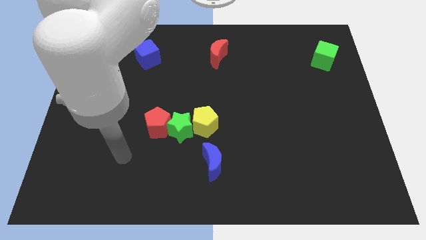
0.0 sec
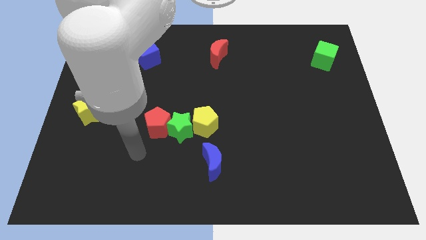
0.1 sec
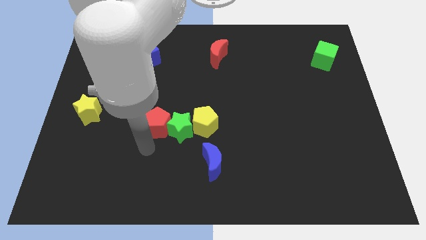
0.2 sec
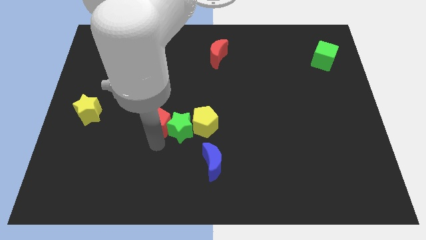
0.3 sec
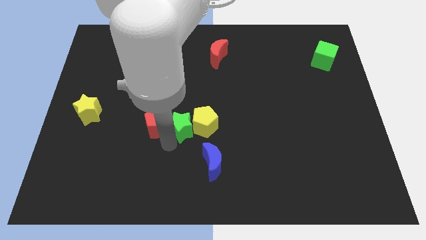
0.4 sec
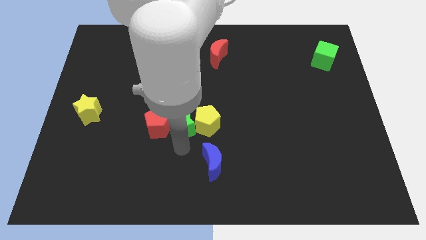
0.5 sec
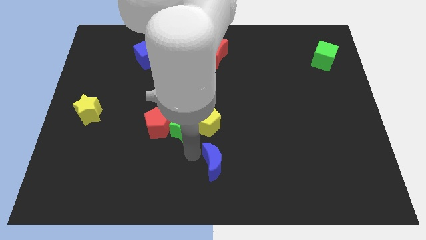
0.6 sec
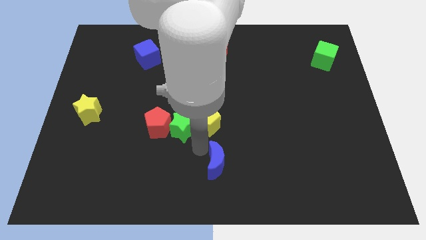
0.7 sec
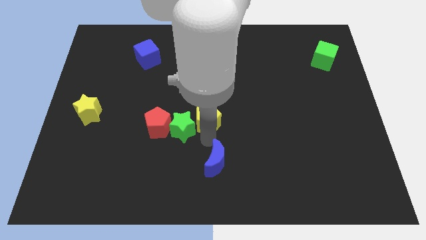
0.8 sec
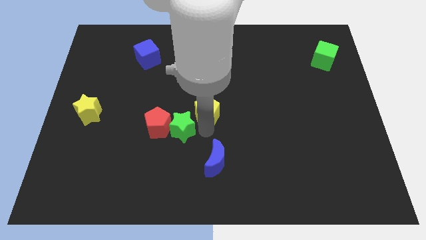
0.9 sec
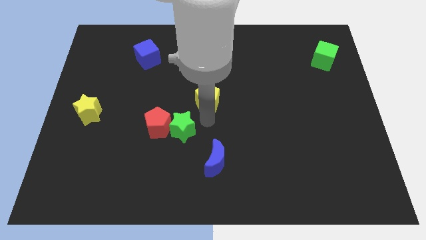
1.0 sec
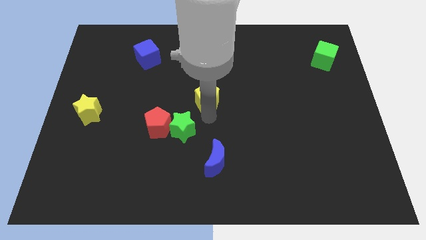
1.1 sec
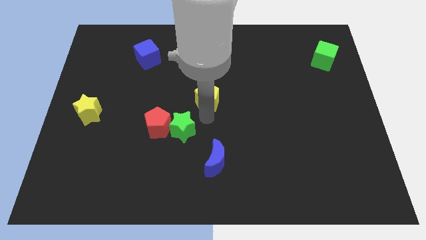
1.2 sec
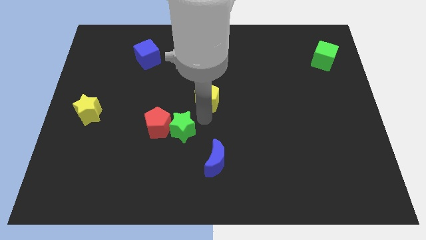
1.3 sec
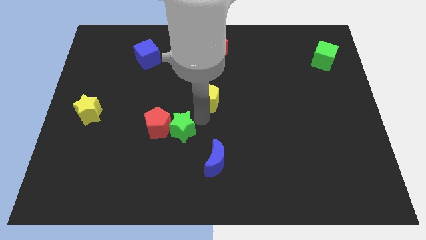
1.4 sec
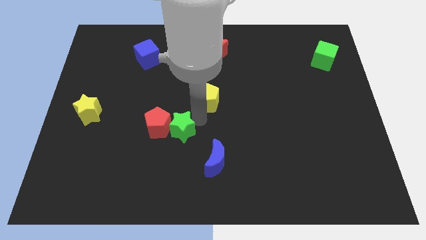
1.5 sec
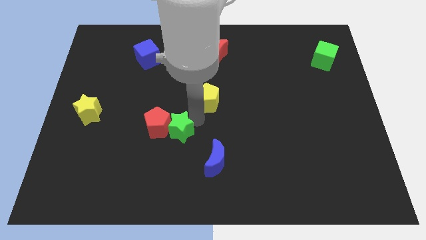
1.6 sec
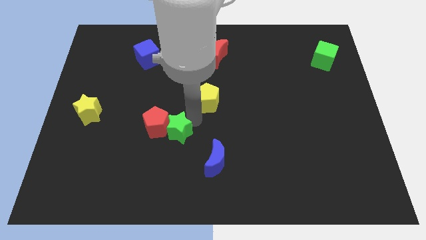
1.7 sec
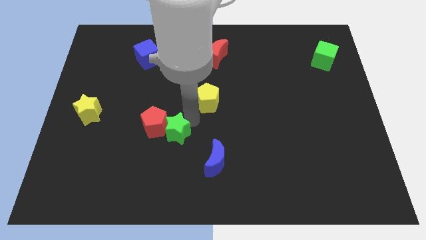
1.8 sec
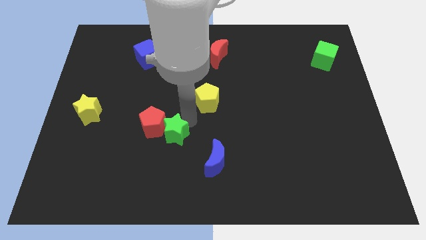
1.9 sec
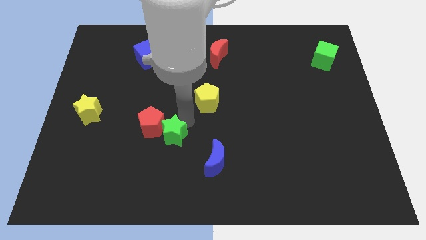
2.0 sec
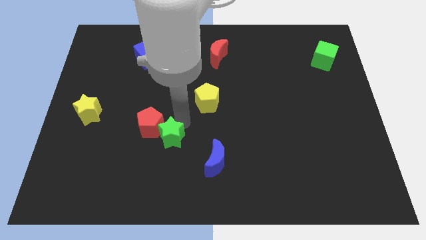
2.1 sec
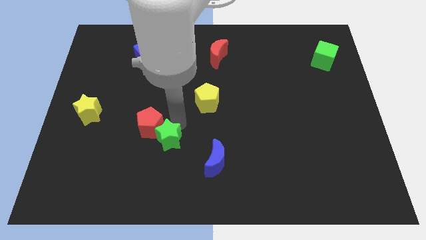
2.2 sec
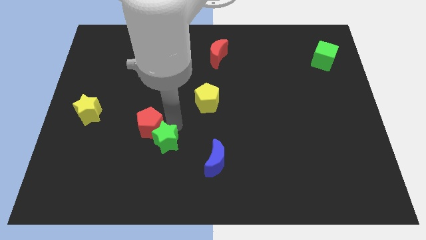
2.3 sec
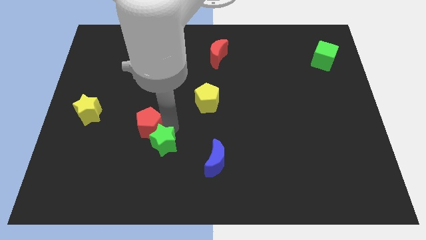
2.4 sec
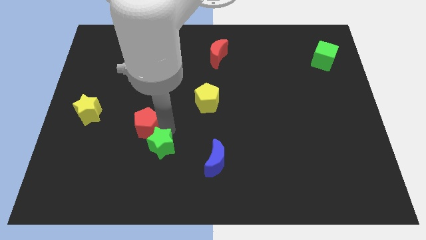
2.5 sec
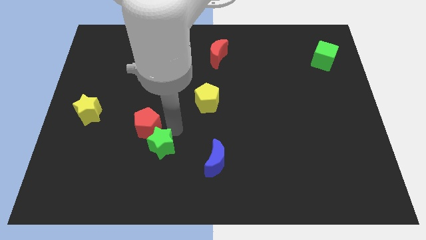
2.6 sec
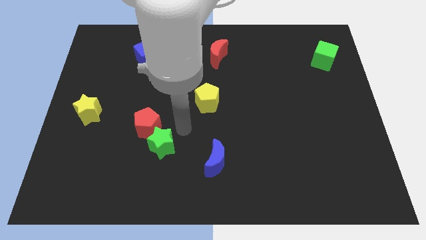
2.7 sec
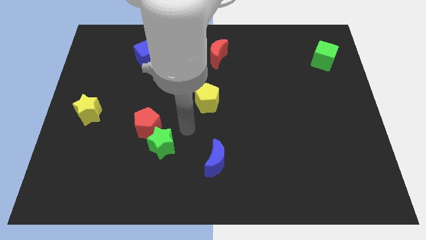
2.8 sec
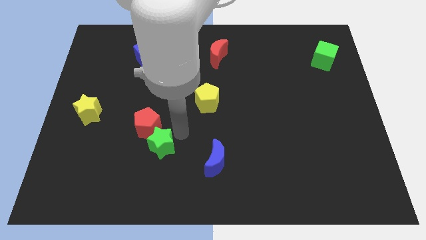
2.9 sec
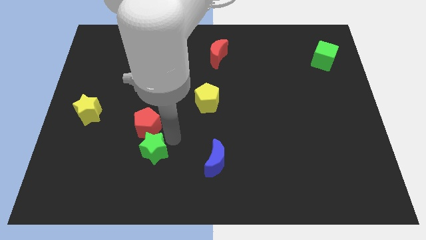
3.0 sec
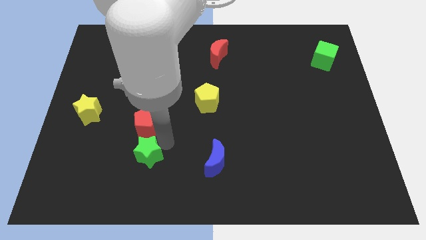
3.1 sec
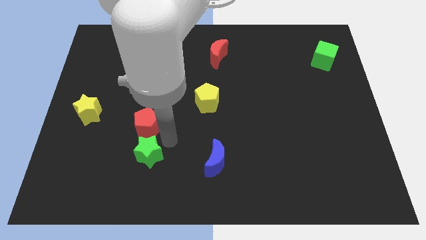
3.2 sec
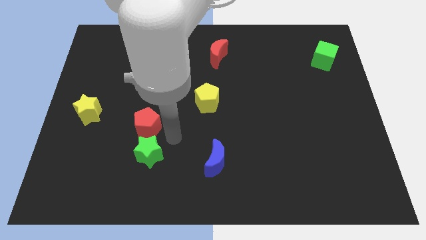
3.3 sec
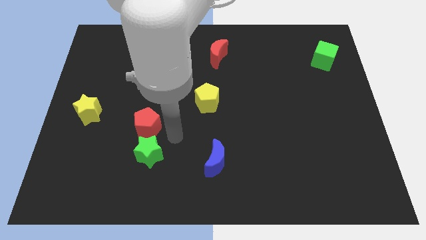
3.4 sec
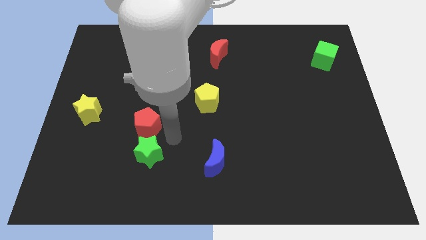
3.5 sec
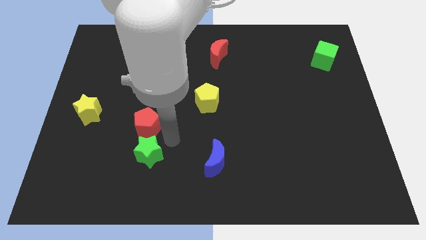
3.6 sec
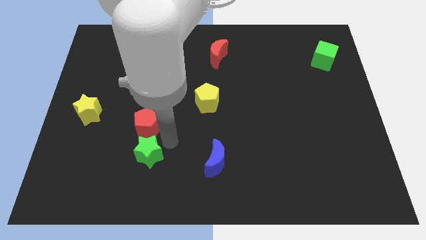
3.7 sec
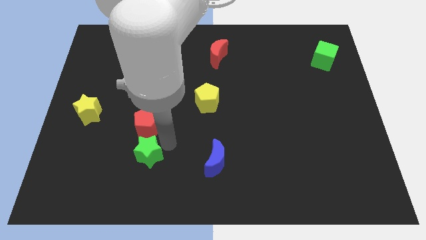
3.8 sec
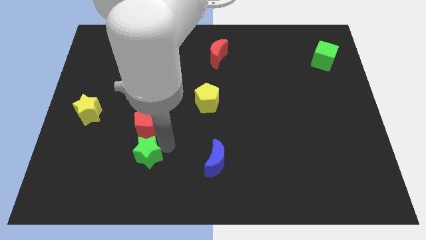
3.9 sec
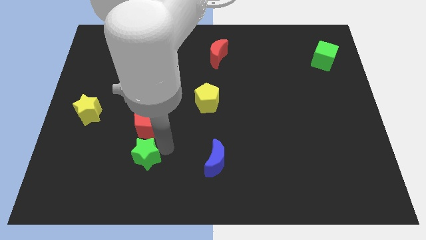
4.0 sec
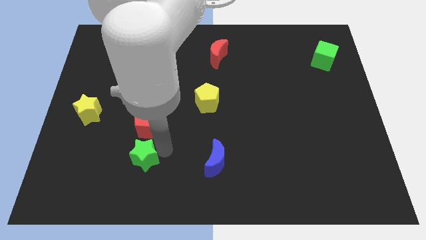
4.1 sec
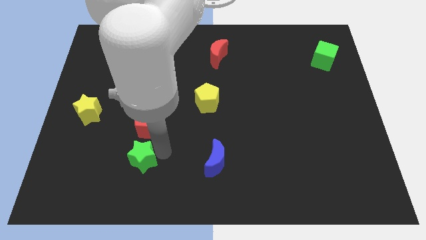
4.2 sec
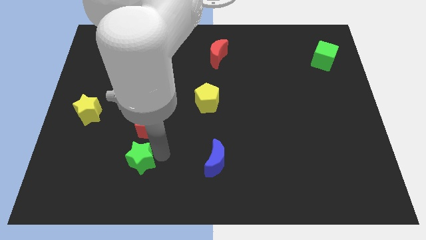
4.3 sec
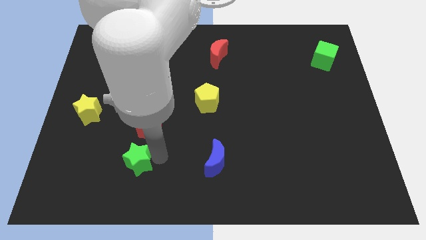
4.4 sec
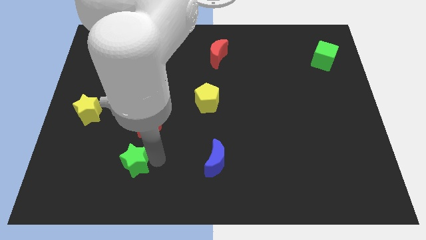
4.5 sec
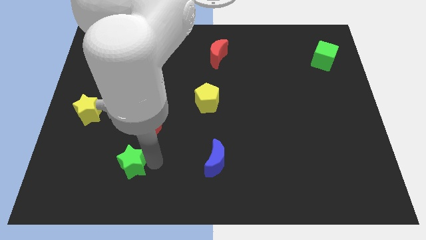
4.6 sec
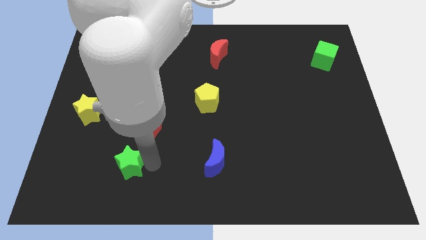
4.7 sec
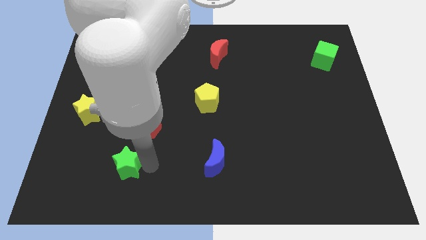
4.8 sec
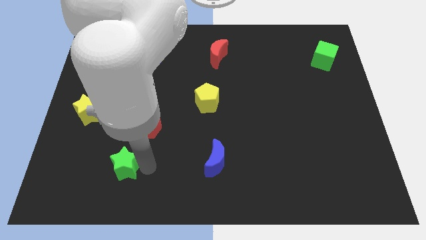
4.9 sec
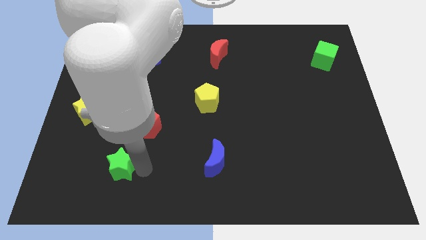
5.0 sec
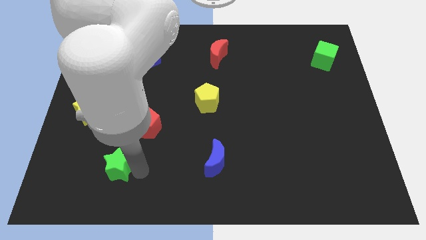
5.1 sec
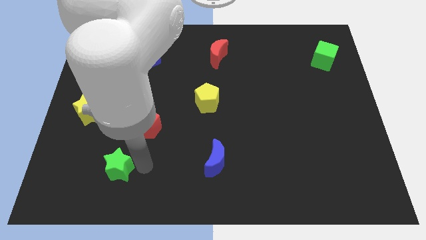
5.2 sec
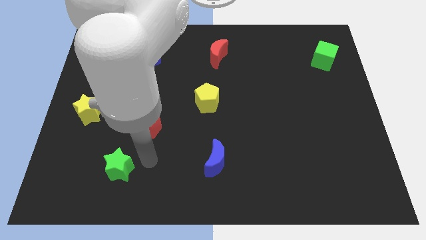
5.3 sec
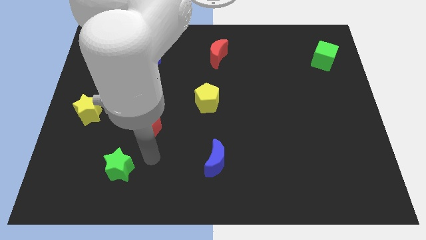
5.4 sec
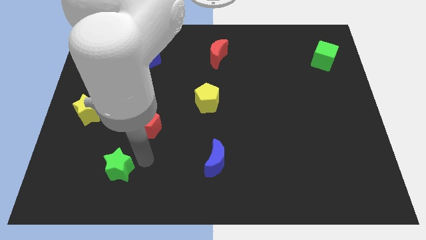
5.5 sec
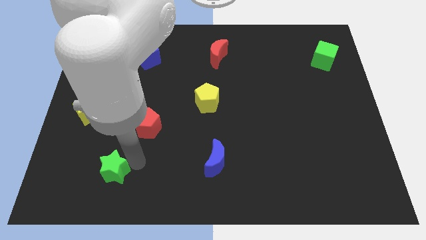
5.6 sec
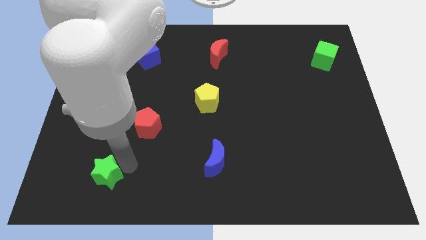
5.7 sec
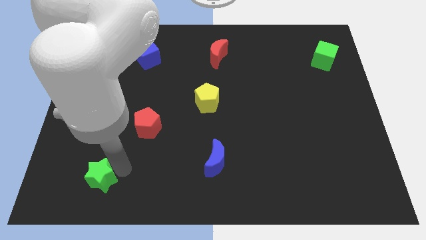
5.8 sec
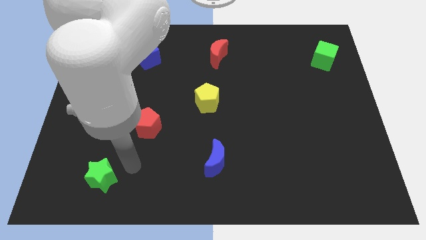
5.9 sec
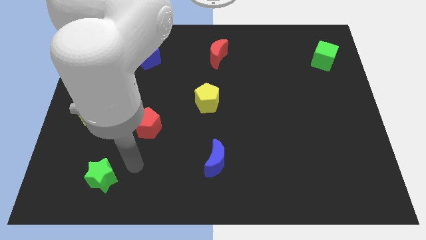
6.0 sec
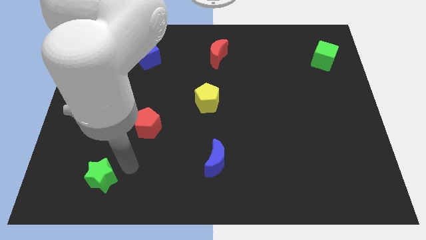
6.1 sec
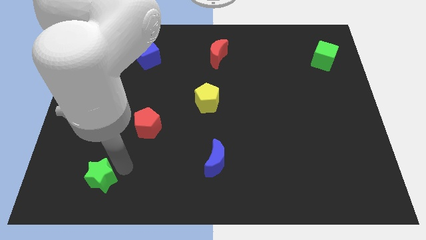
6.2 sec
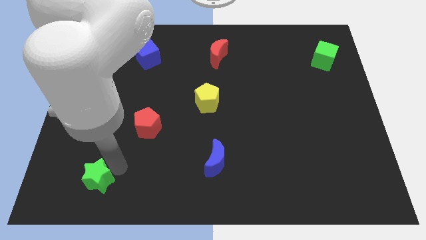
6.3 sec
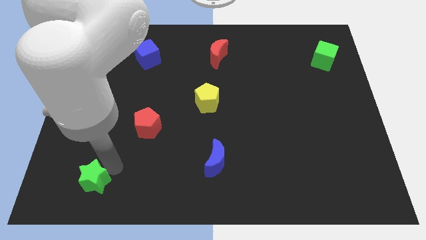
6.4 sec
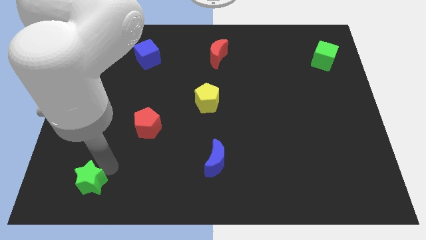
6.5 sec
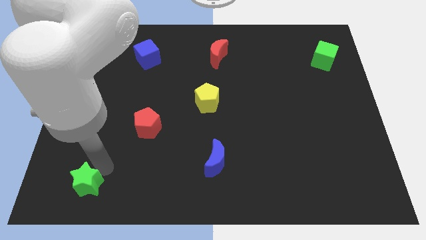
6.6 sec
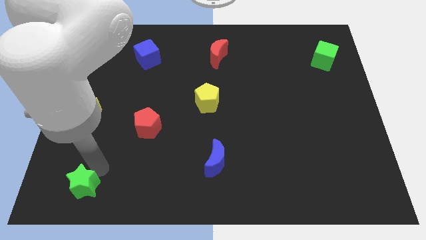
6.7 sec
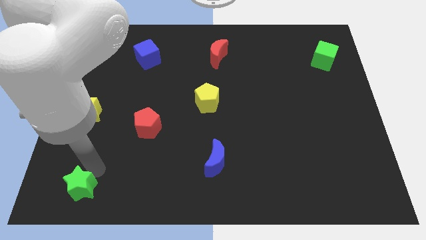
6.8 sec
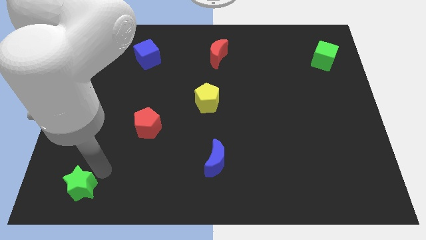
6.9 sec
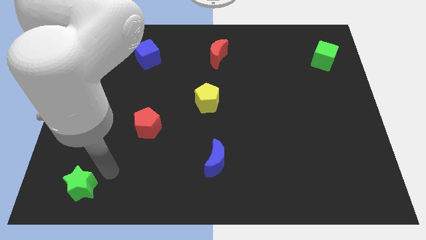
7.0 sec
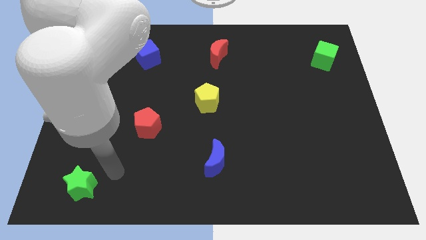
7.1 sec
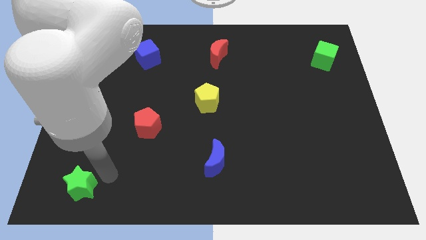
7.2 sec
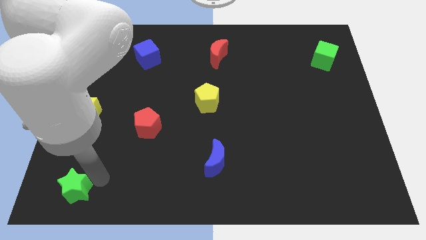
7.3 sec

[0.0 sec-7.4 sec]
move the green star to the bottom left of the board
